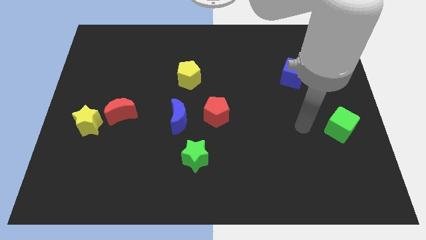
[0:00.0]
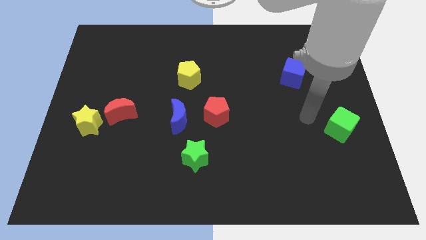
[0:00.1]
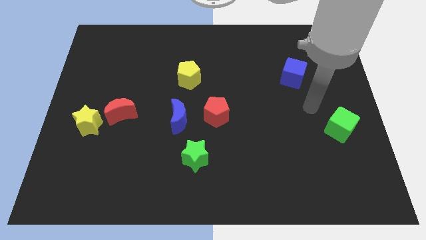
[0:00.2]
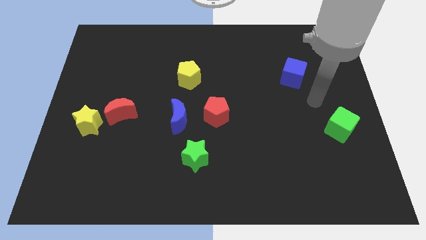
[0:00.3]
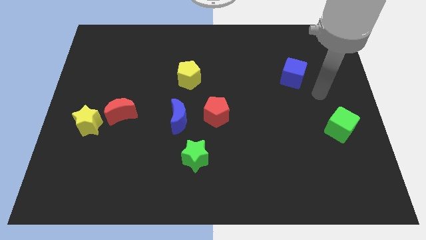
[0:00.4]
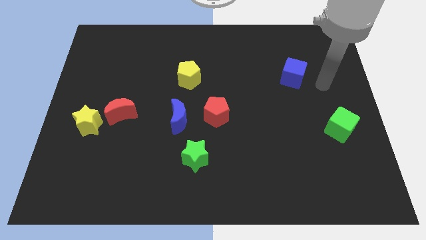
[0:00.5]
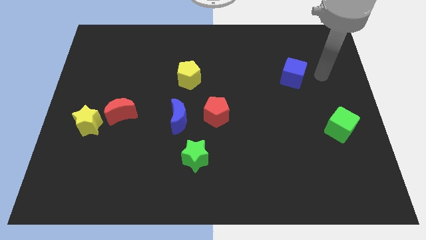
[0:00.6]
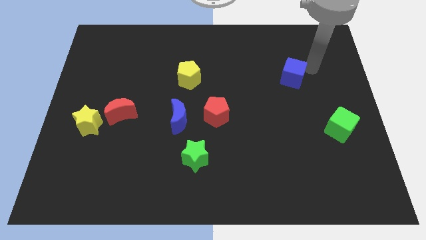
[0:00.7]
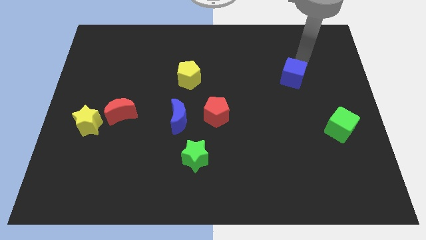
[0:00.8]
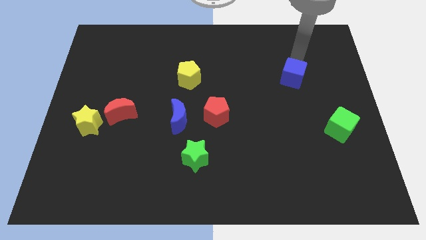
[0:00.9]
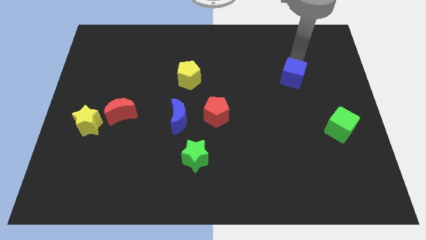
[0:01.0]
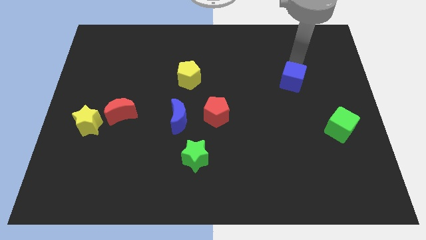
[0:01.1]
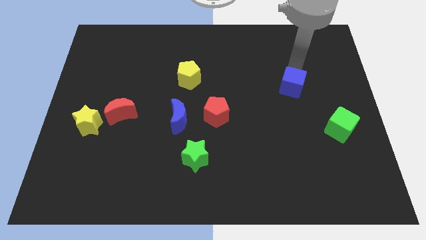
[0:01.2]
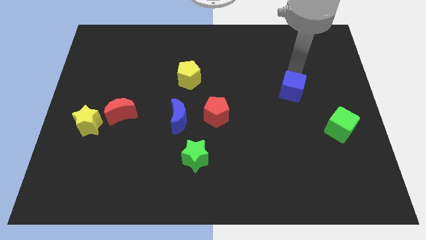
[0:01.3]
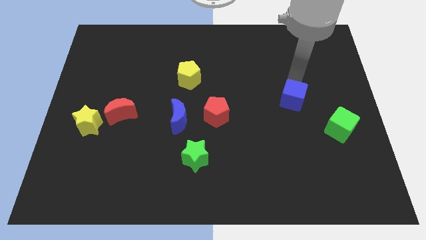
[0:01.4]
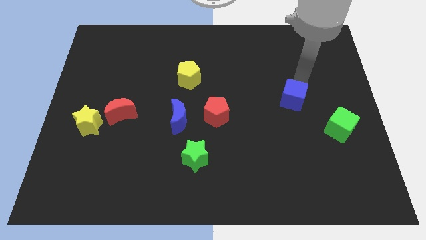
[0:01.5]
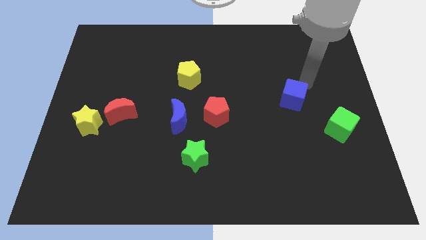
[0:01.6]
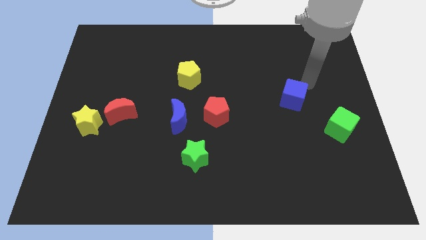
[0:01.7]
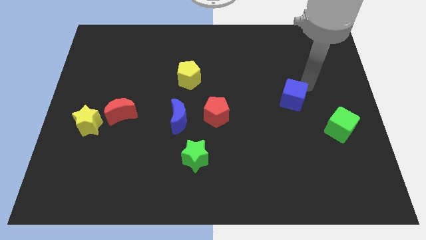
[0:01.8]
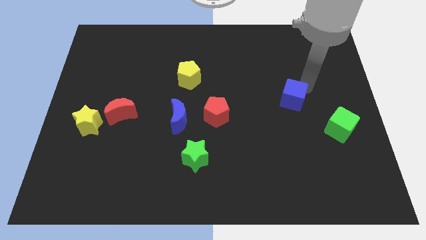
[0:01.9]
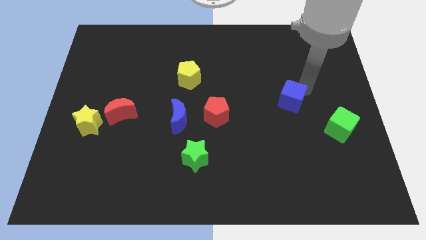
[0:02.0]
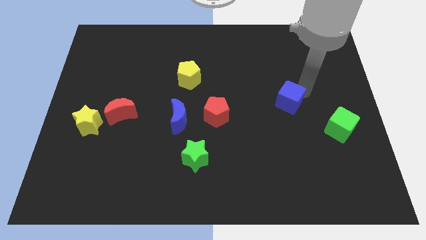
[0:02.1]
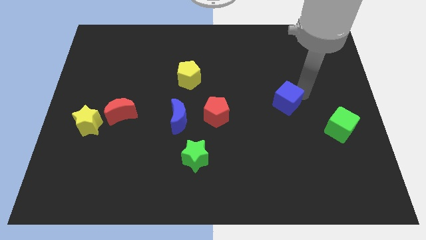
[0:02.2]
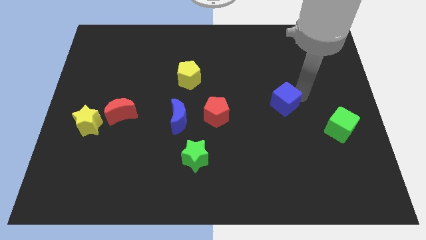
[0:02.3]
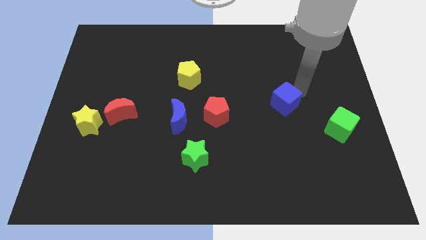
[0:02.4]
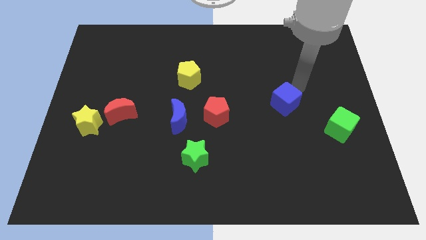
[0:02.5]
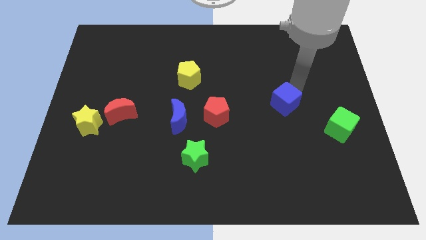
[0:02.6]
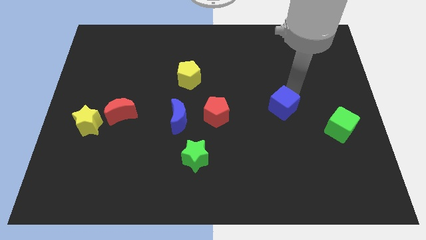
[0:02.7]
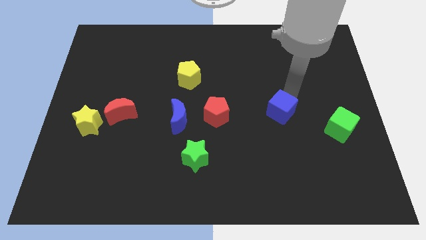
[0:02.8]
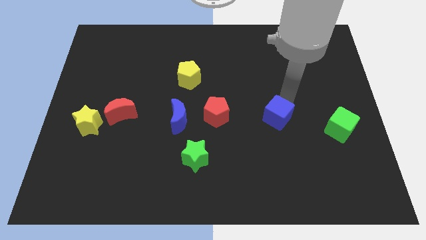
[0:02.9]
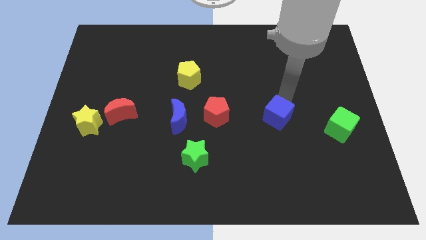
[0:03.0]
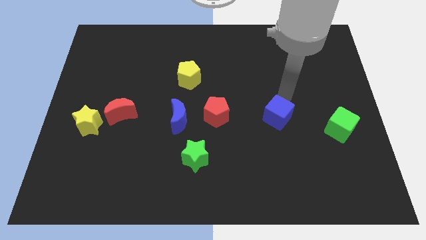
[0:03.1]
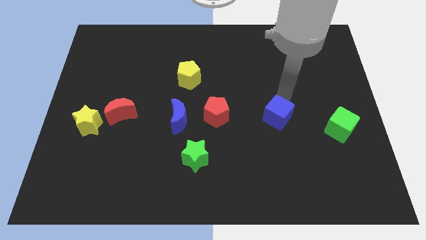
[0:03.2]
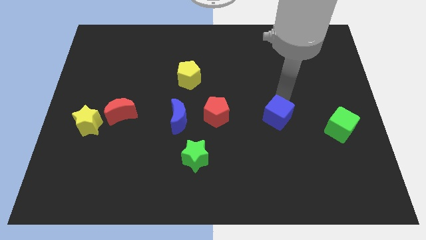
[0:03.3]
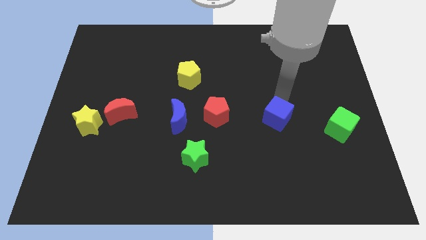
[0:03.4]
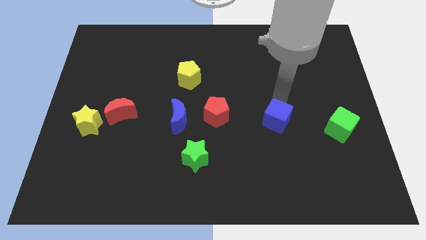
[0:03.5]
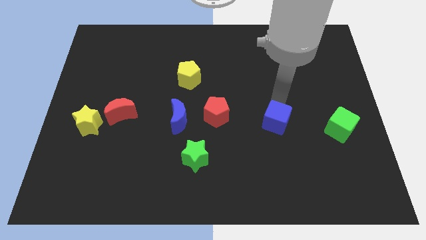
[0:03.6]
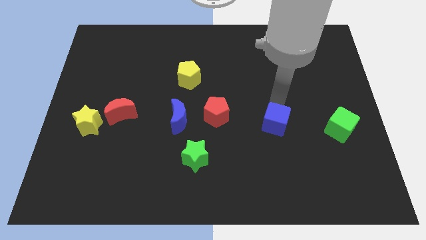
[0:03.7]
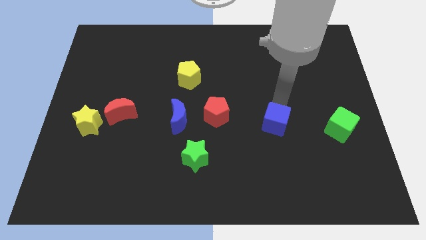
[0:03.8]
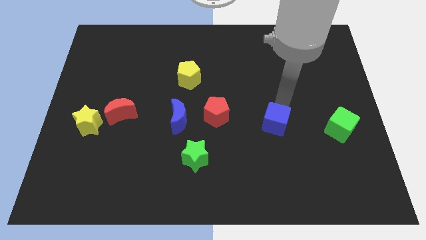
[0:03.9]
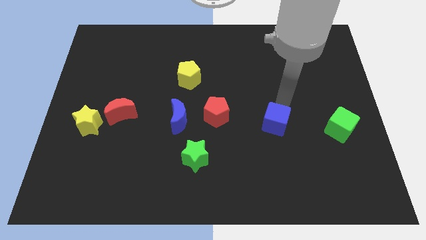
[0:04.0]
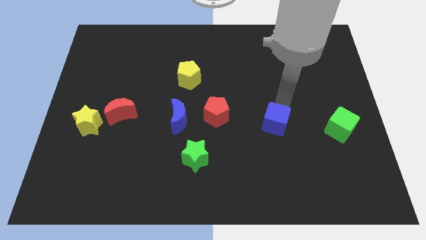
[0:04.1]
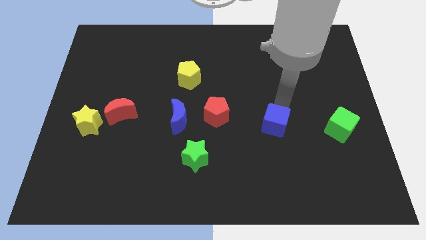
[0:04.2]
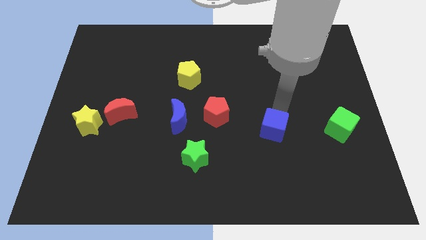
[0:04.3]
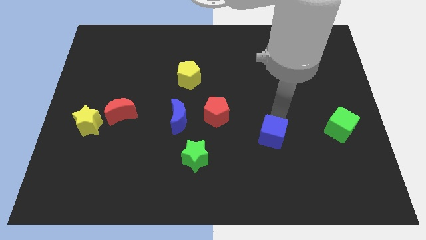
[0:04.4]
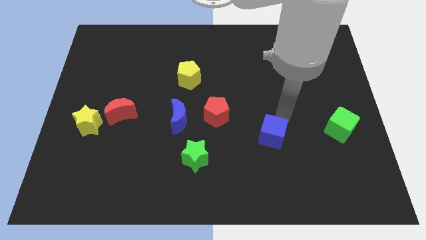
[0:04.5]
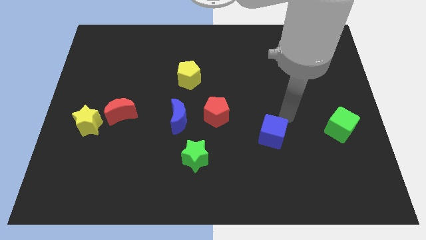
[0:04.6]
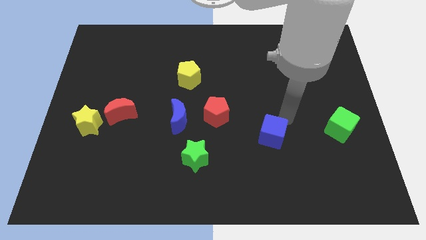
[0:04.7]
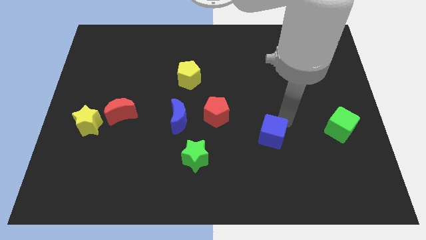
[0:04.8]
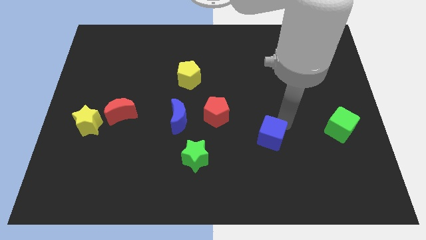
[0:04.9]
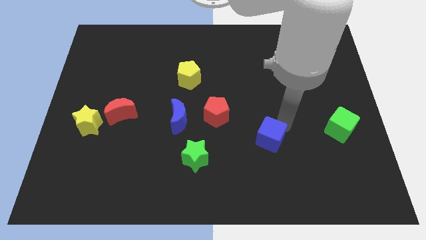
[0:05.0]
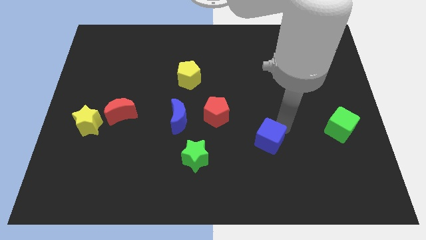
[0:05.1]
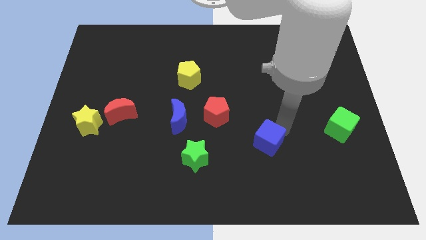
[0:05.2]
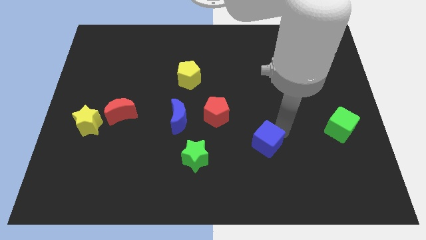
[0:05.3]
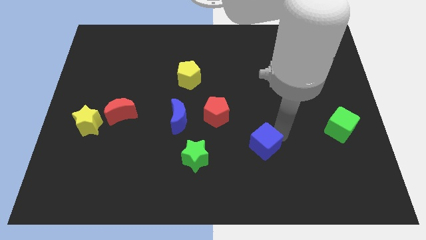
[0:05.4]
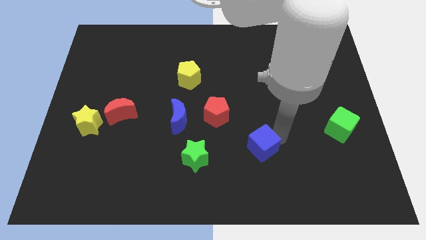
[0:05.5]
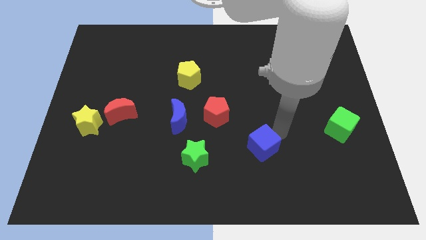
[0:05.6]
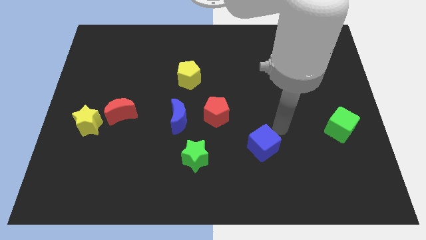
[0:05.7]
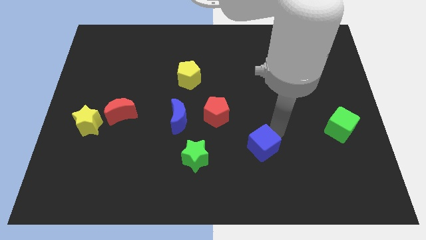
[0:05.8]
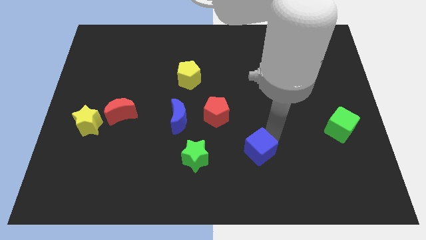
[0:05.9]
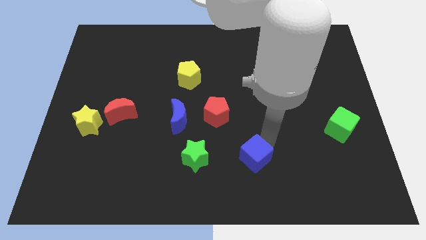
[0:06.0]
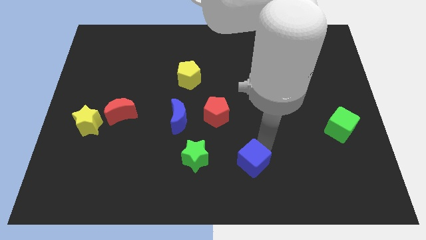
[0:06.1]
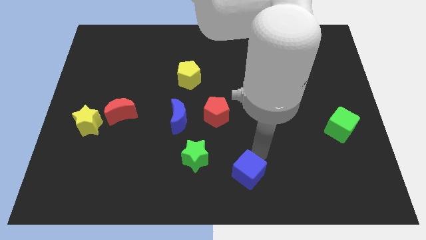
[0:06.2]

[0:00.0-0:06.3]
slide the blue cube to the bottom
